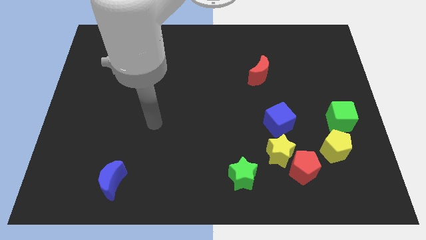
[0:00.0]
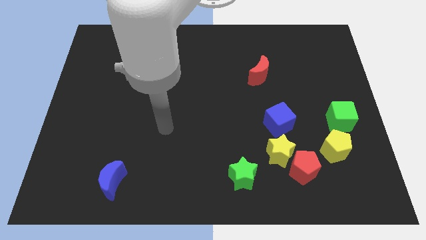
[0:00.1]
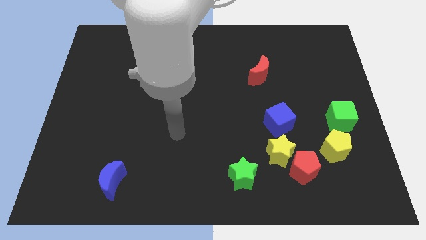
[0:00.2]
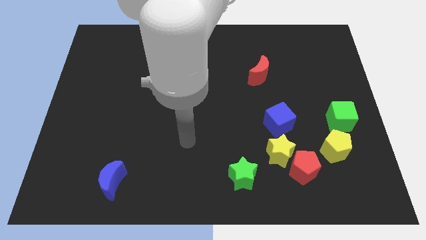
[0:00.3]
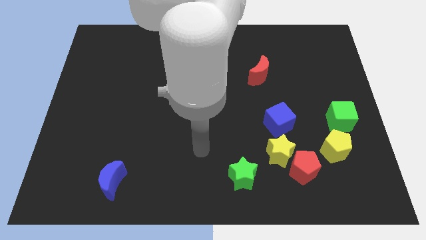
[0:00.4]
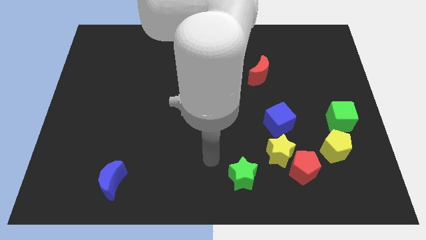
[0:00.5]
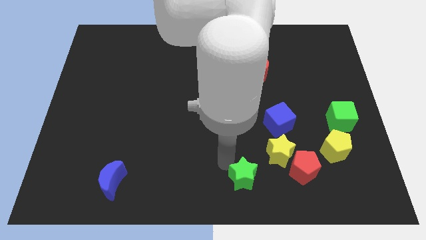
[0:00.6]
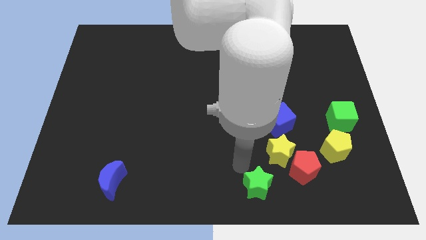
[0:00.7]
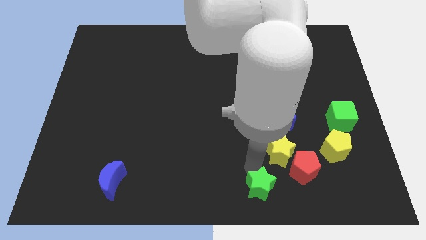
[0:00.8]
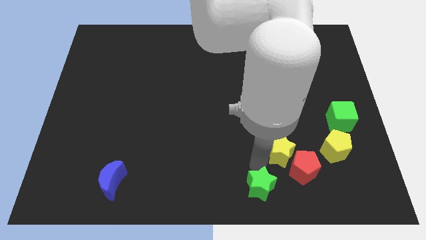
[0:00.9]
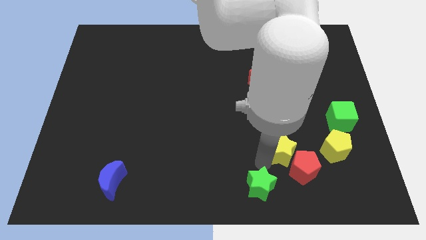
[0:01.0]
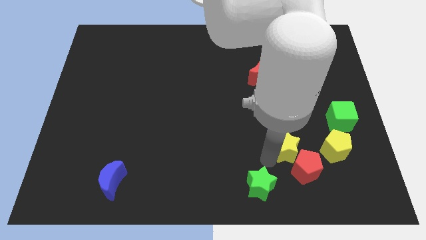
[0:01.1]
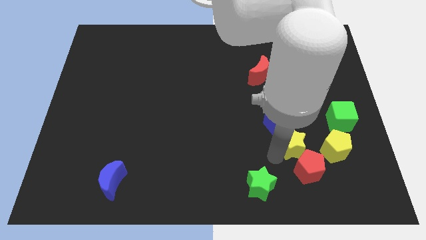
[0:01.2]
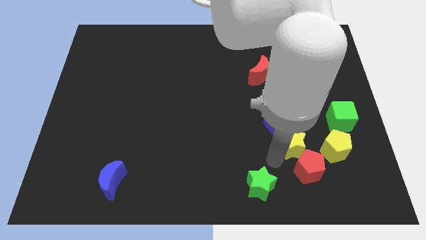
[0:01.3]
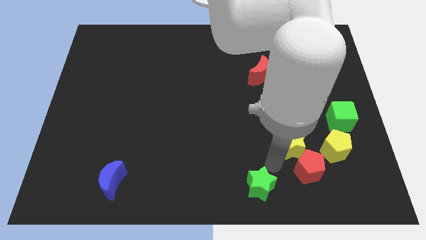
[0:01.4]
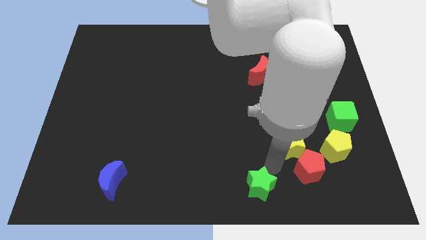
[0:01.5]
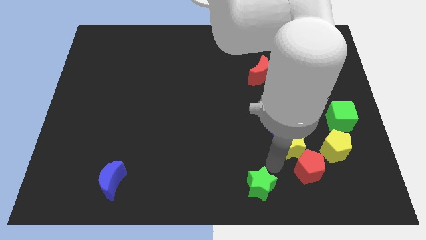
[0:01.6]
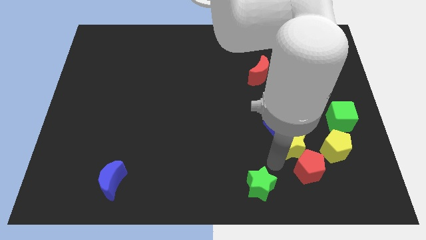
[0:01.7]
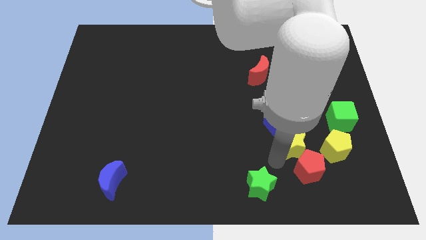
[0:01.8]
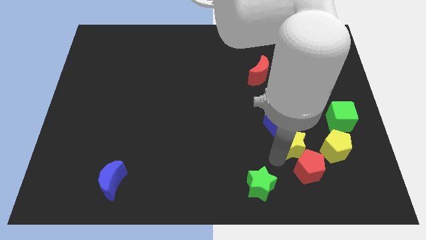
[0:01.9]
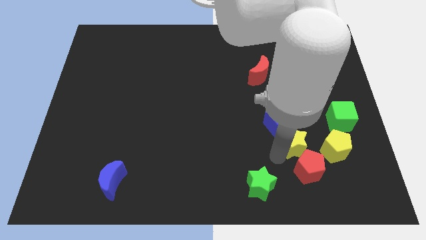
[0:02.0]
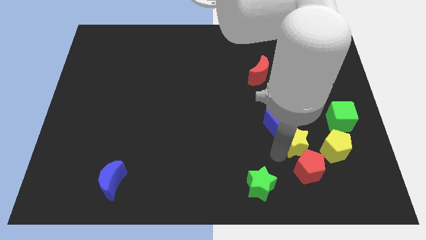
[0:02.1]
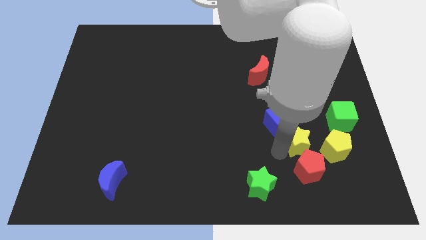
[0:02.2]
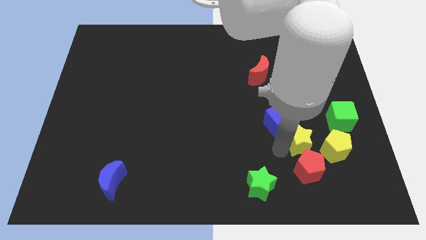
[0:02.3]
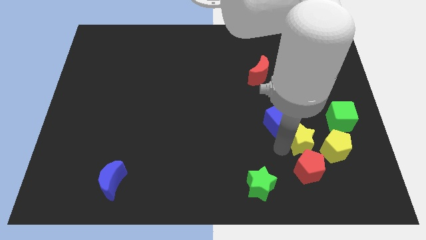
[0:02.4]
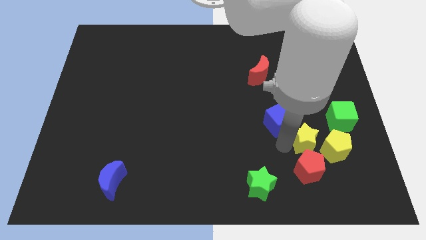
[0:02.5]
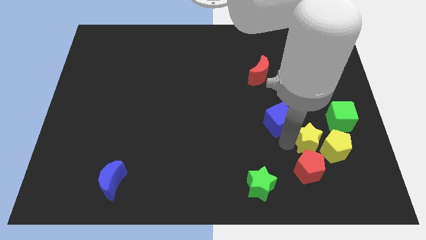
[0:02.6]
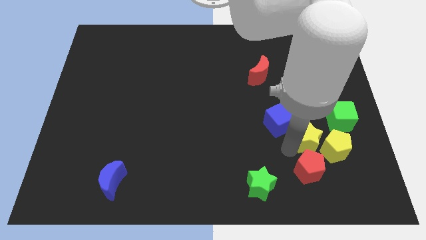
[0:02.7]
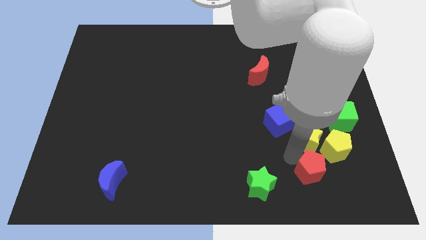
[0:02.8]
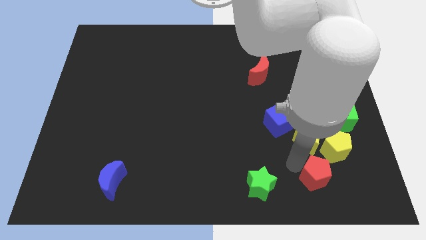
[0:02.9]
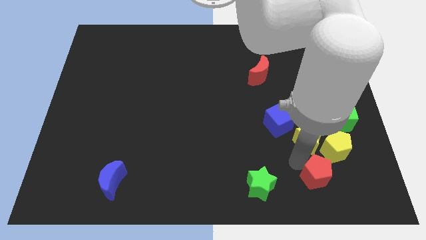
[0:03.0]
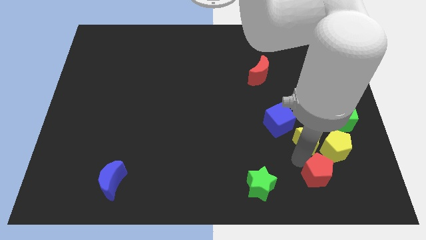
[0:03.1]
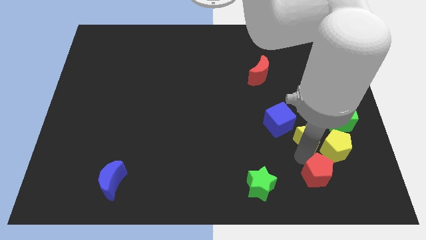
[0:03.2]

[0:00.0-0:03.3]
slightly slide the yellow star upwards and to the right

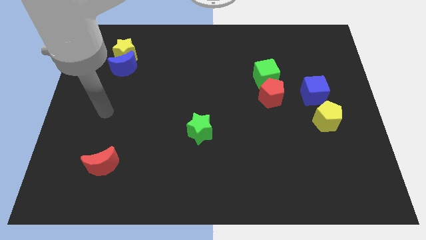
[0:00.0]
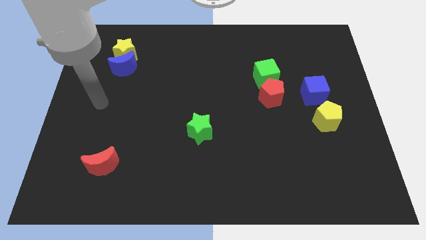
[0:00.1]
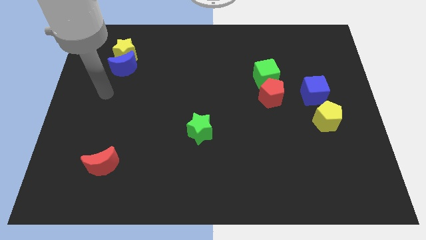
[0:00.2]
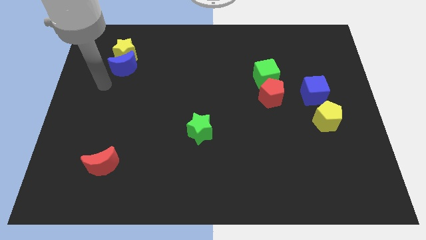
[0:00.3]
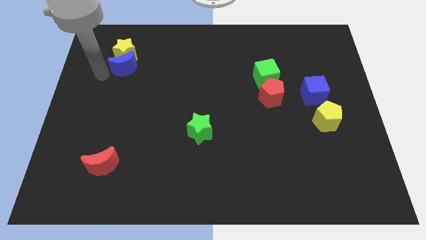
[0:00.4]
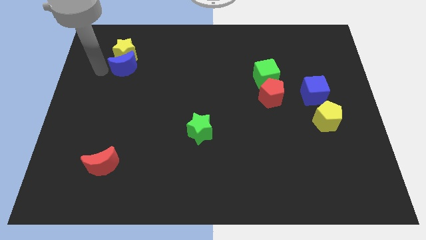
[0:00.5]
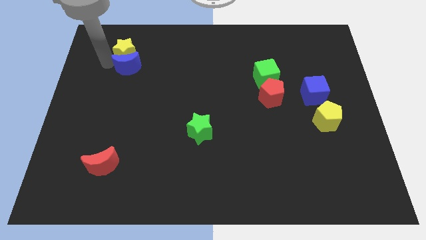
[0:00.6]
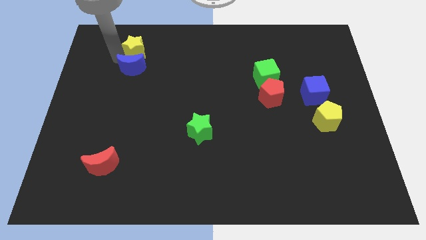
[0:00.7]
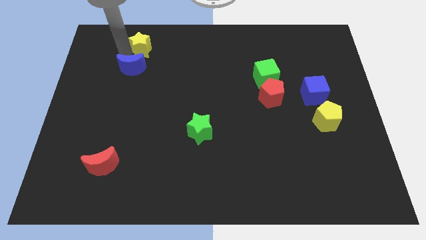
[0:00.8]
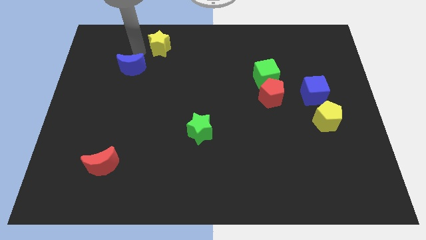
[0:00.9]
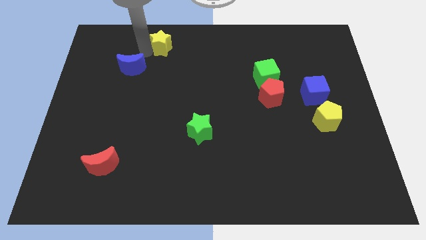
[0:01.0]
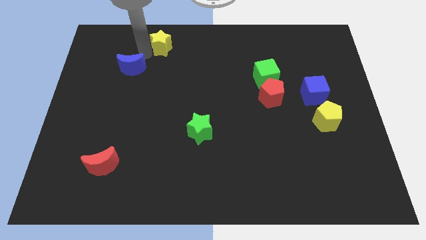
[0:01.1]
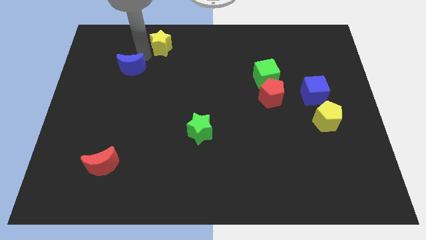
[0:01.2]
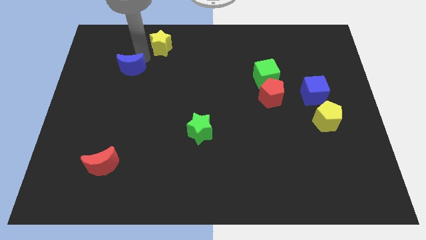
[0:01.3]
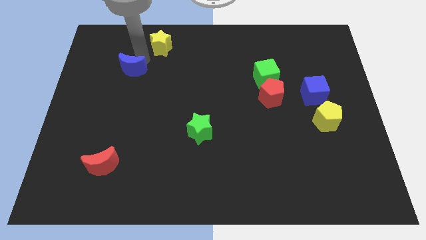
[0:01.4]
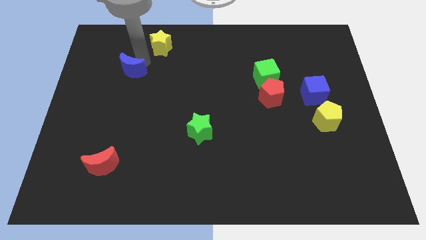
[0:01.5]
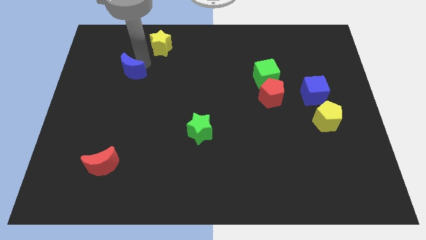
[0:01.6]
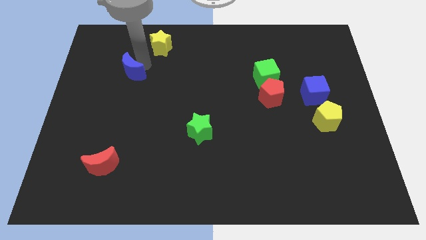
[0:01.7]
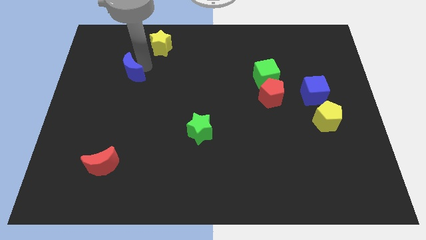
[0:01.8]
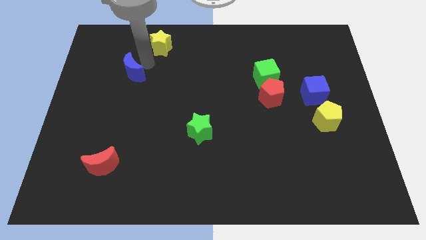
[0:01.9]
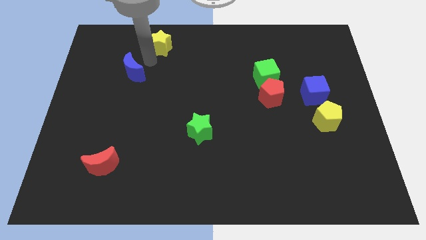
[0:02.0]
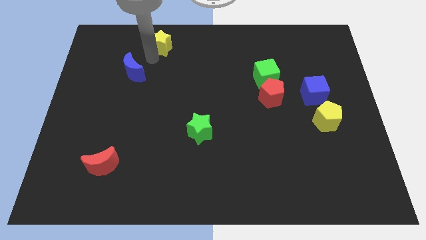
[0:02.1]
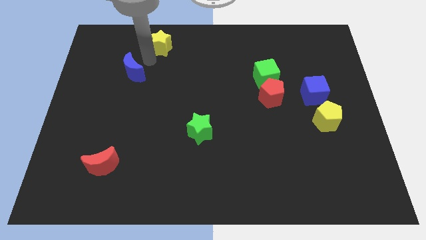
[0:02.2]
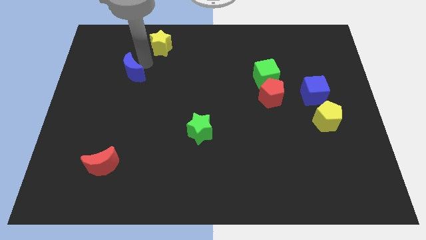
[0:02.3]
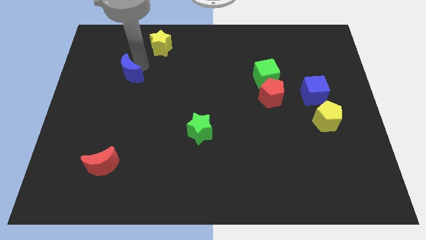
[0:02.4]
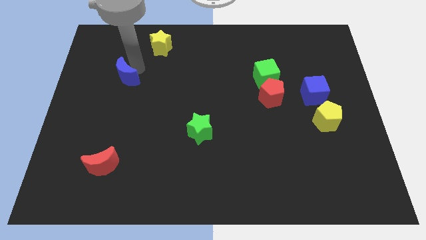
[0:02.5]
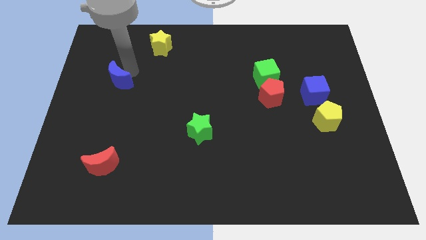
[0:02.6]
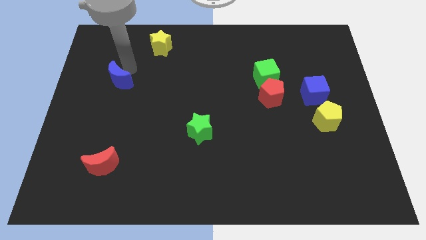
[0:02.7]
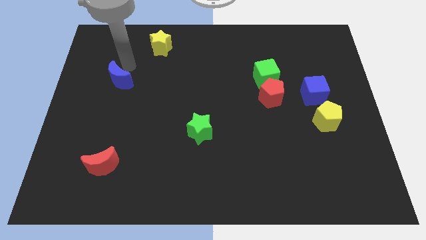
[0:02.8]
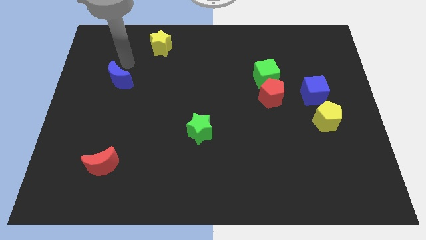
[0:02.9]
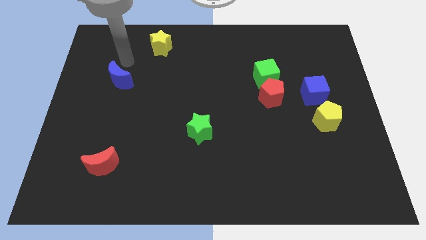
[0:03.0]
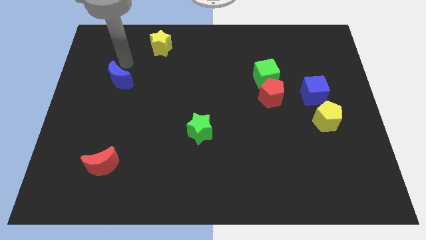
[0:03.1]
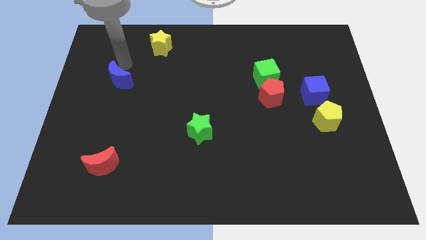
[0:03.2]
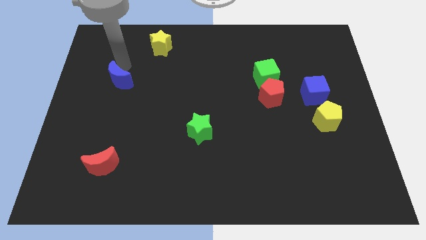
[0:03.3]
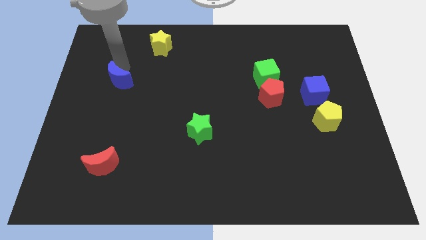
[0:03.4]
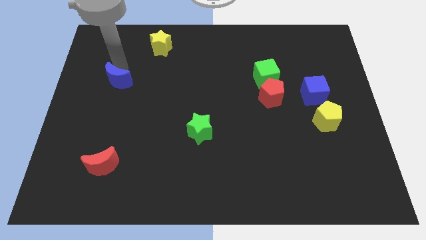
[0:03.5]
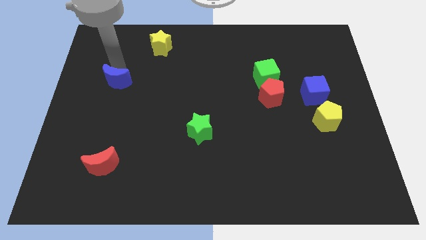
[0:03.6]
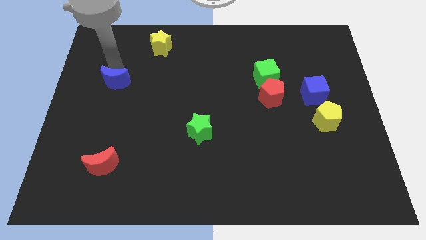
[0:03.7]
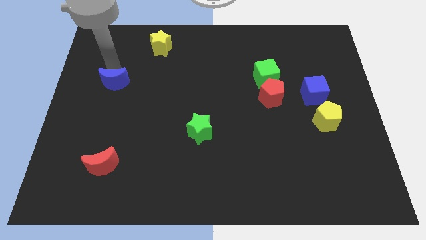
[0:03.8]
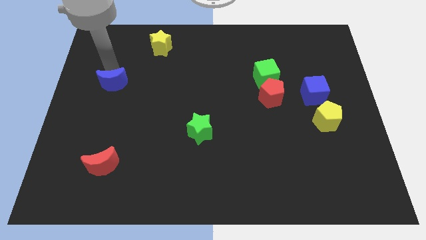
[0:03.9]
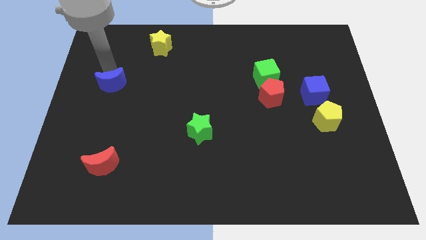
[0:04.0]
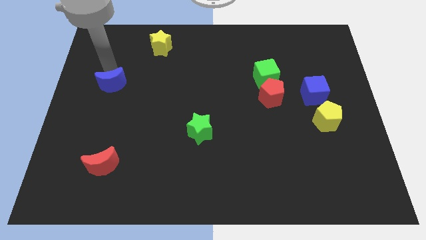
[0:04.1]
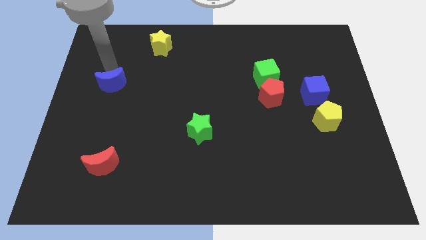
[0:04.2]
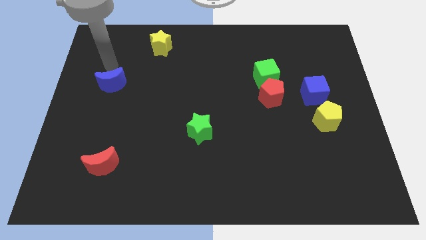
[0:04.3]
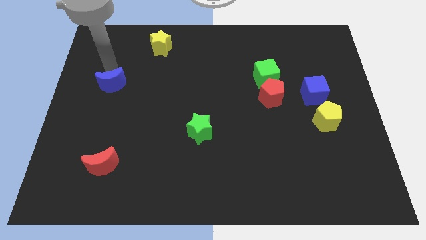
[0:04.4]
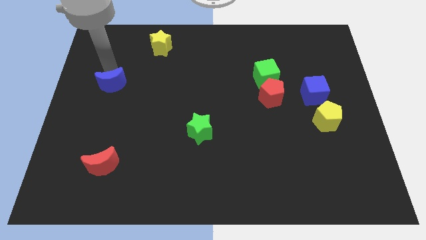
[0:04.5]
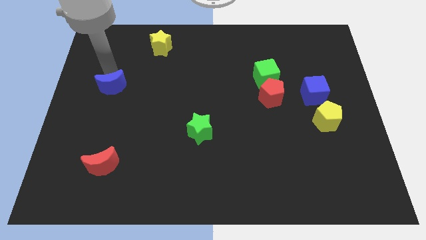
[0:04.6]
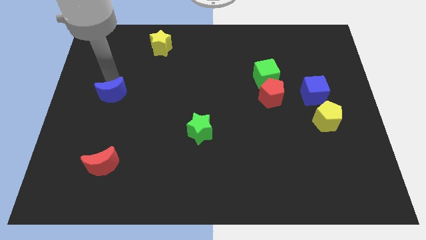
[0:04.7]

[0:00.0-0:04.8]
slide the blue moon slightly down
